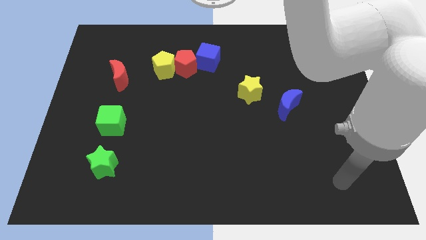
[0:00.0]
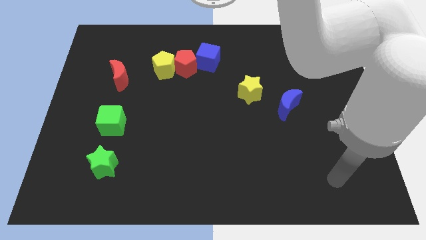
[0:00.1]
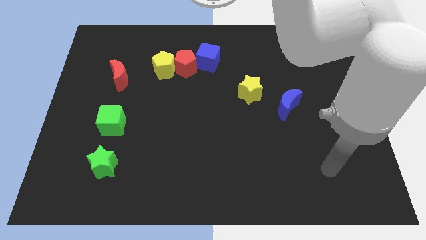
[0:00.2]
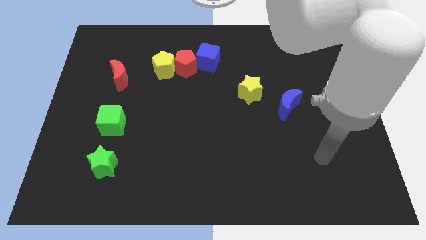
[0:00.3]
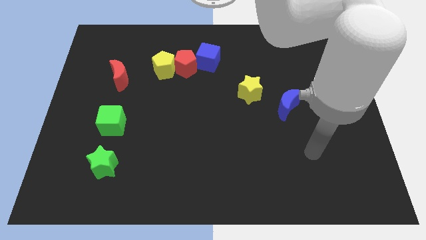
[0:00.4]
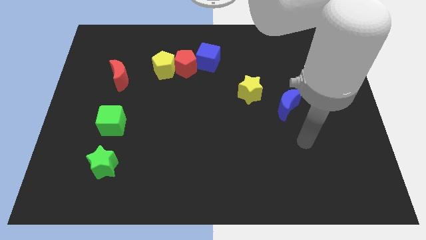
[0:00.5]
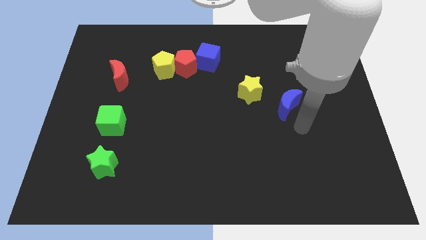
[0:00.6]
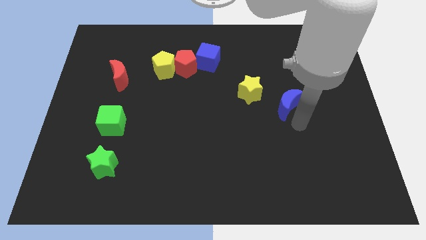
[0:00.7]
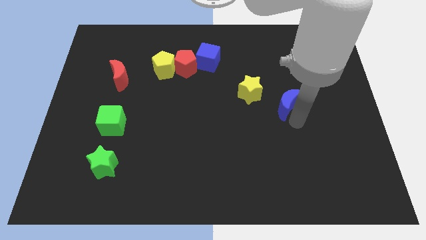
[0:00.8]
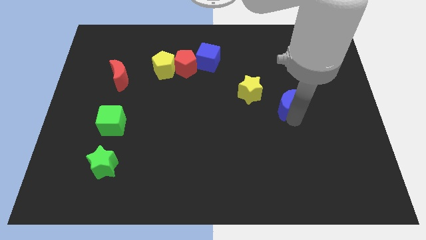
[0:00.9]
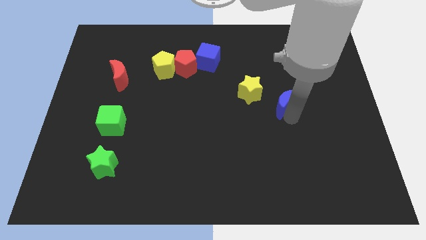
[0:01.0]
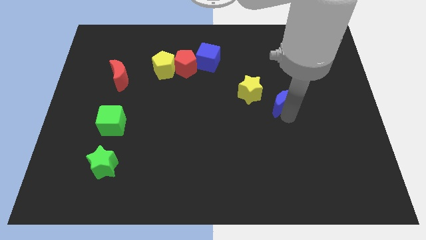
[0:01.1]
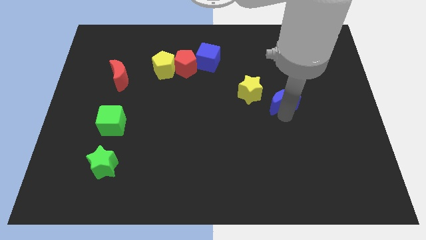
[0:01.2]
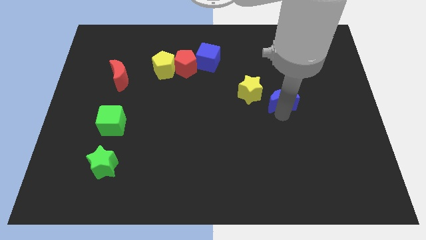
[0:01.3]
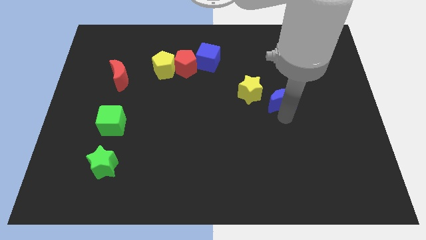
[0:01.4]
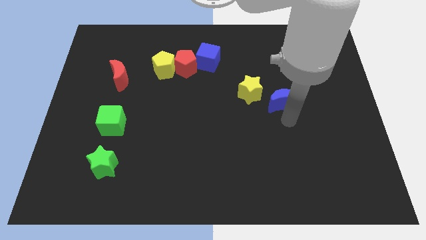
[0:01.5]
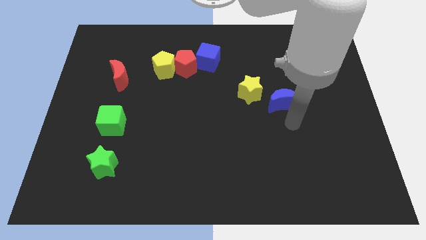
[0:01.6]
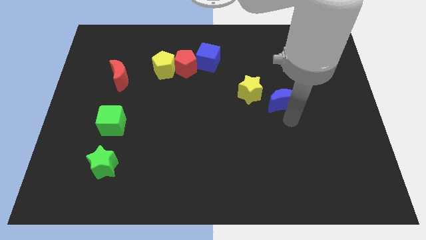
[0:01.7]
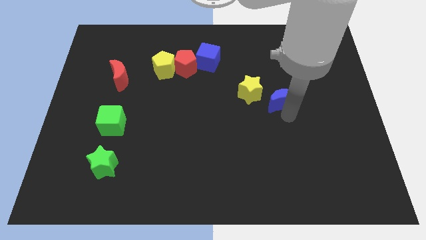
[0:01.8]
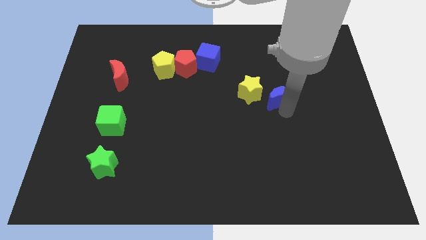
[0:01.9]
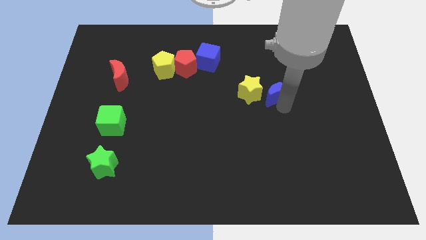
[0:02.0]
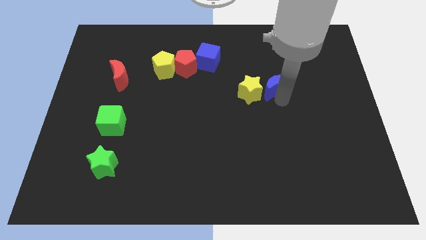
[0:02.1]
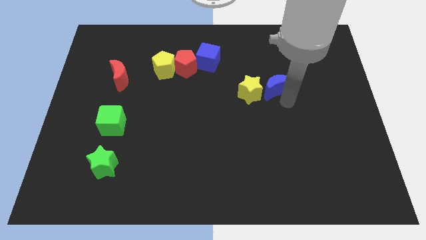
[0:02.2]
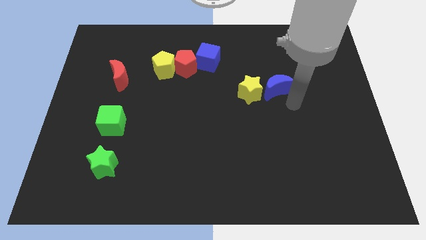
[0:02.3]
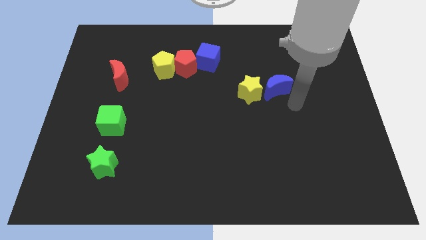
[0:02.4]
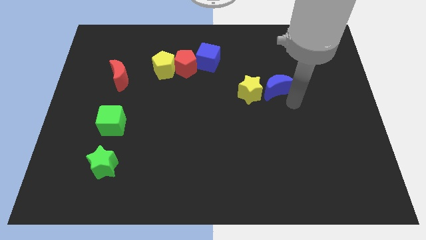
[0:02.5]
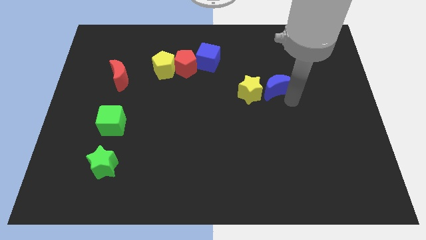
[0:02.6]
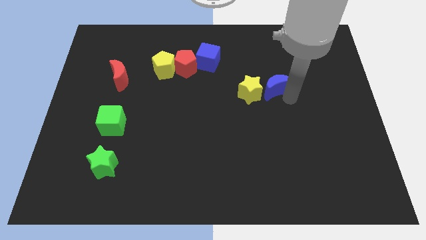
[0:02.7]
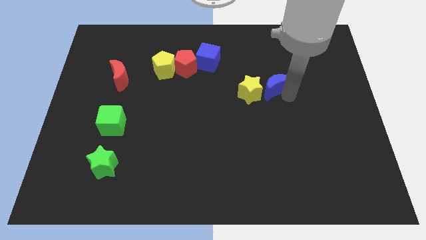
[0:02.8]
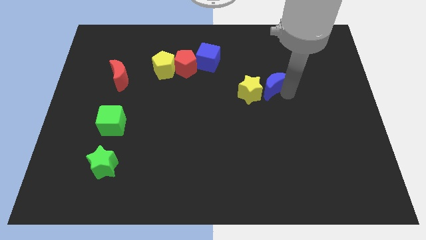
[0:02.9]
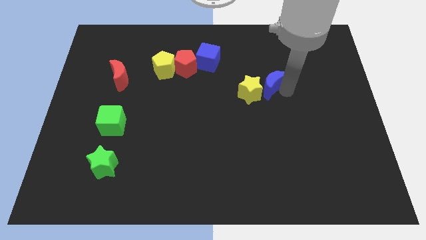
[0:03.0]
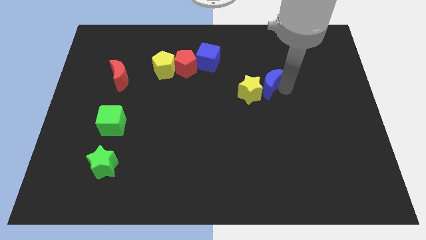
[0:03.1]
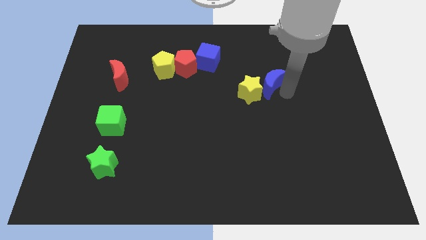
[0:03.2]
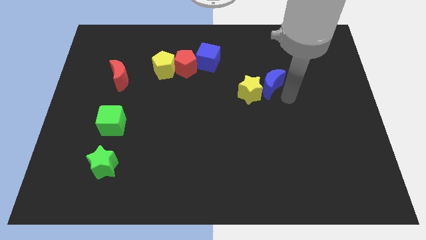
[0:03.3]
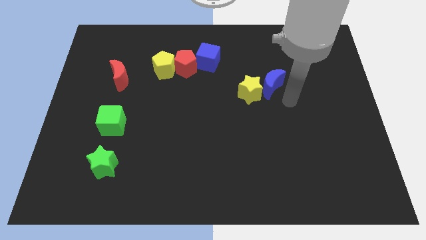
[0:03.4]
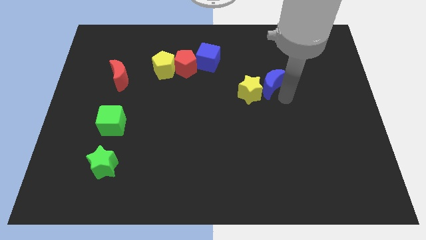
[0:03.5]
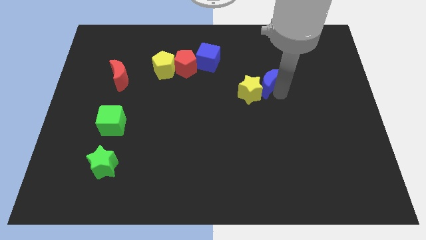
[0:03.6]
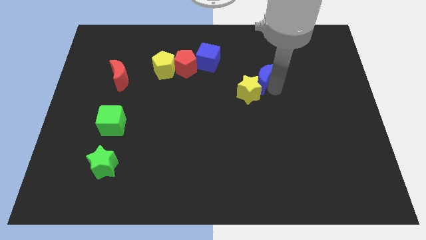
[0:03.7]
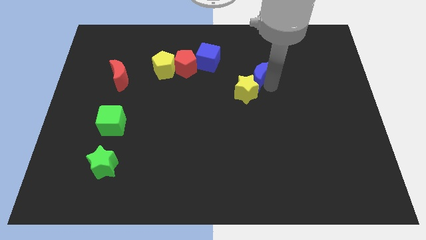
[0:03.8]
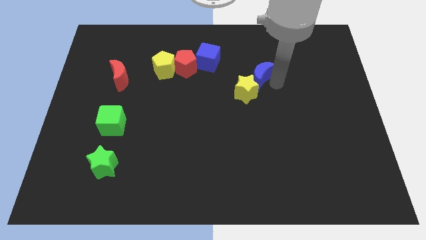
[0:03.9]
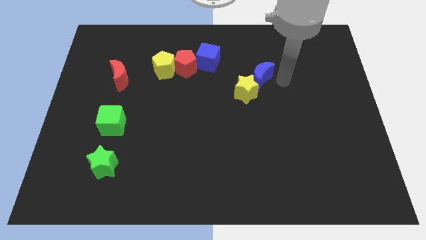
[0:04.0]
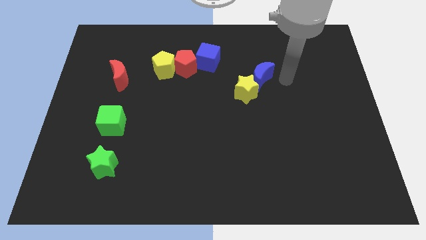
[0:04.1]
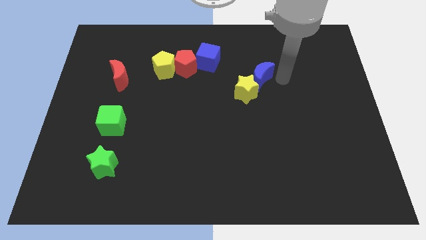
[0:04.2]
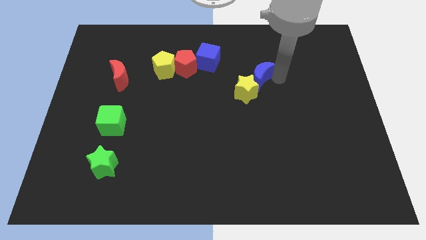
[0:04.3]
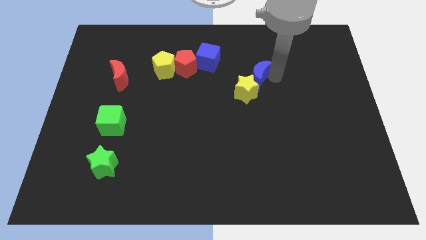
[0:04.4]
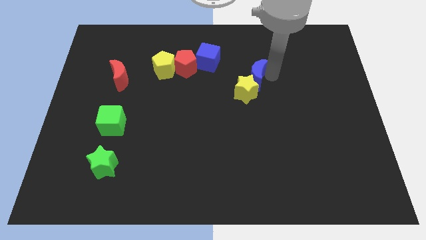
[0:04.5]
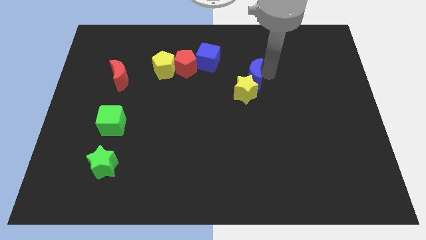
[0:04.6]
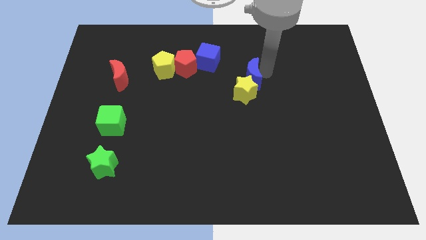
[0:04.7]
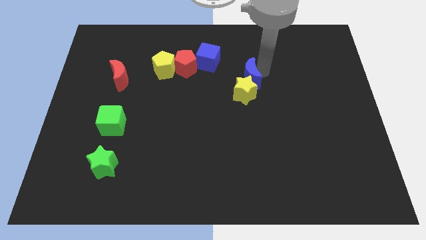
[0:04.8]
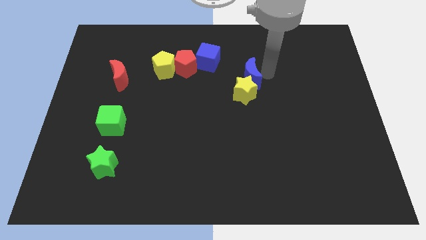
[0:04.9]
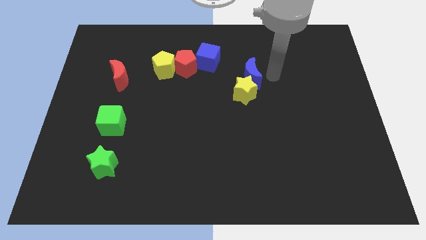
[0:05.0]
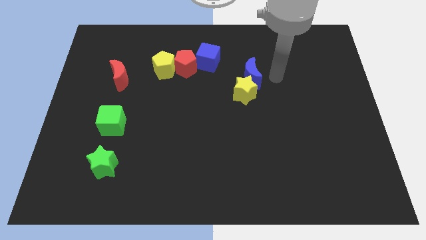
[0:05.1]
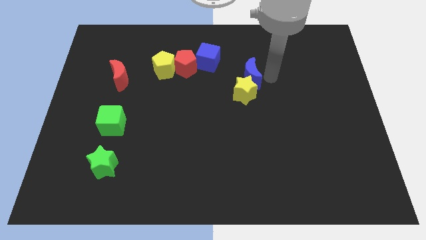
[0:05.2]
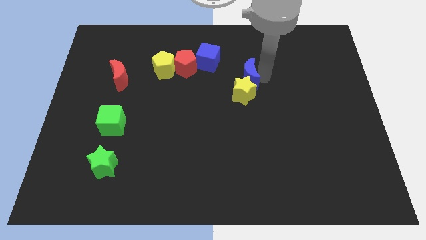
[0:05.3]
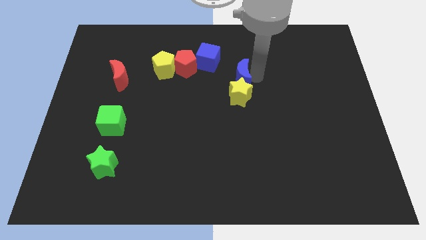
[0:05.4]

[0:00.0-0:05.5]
put the blue moon to the top left side of the yellow star

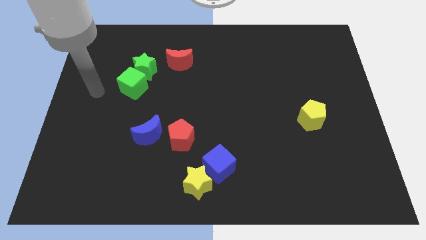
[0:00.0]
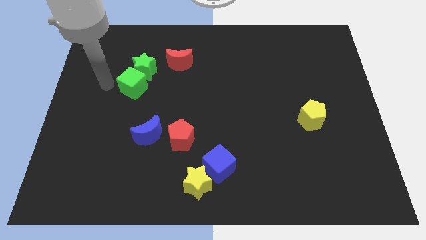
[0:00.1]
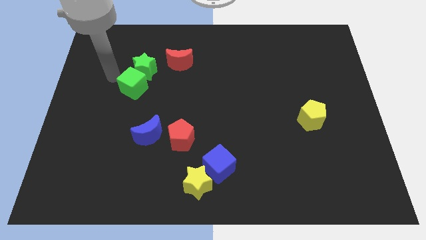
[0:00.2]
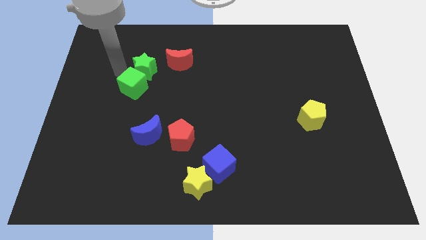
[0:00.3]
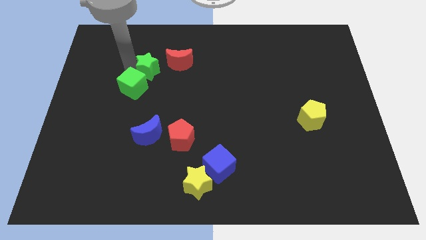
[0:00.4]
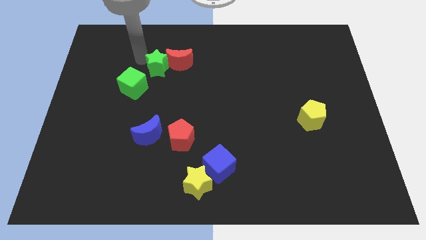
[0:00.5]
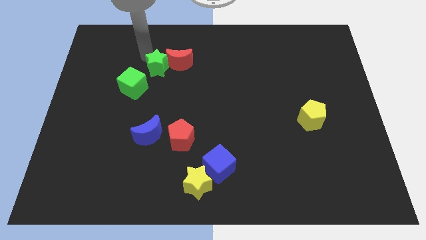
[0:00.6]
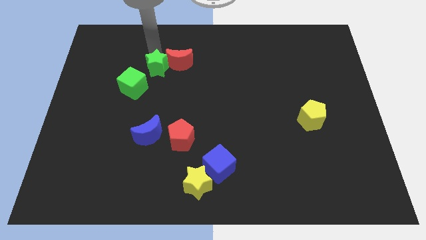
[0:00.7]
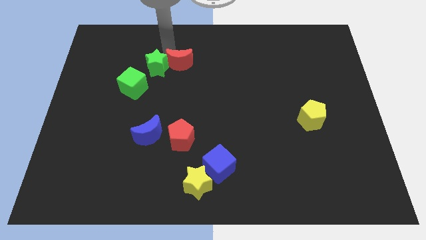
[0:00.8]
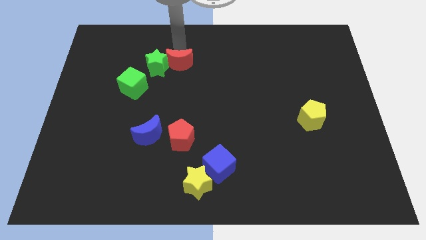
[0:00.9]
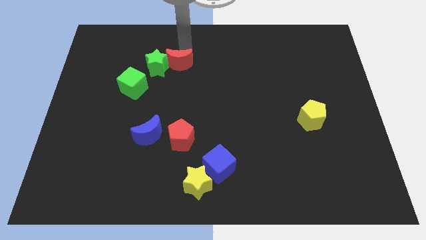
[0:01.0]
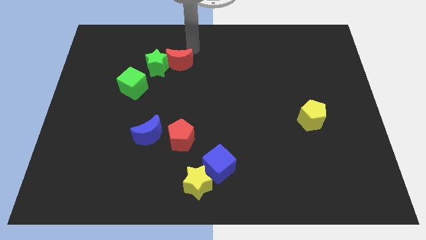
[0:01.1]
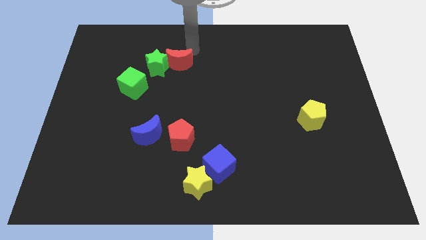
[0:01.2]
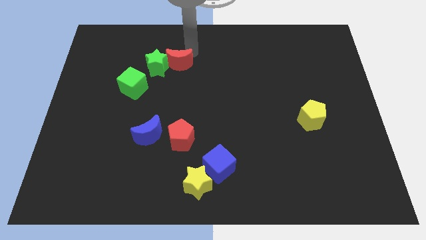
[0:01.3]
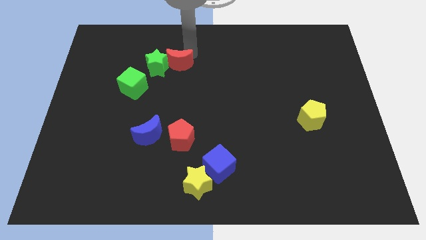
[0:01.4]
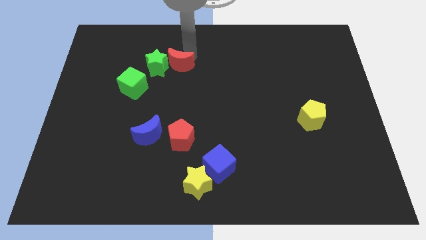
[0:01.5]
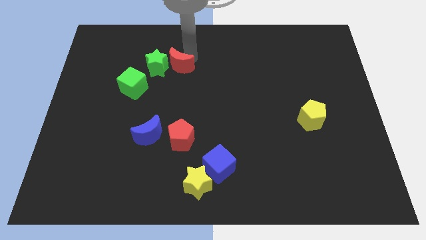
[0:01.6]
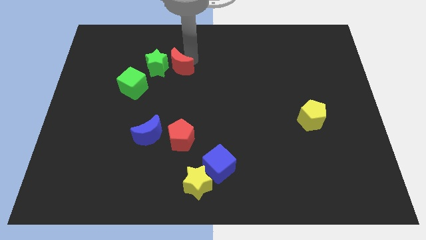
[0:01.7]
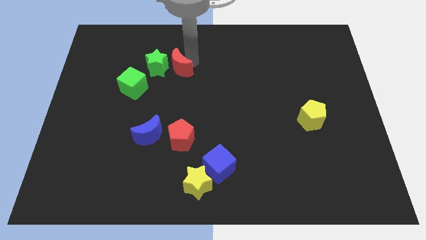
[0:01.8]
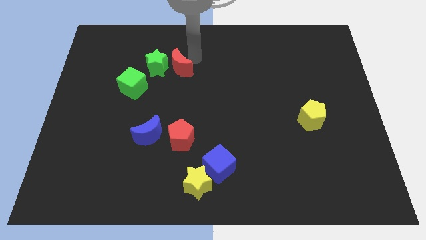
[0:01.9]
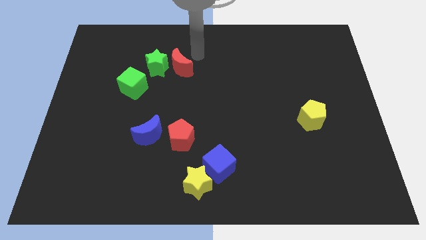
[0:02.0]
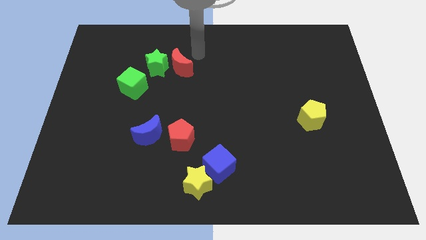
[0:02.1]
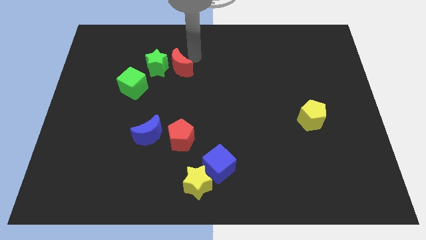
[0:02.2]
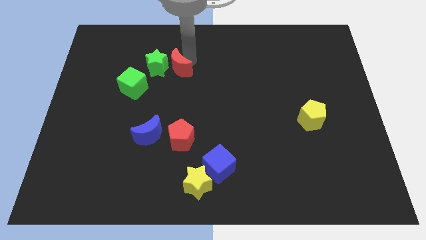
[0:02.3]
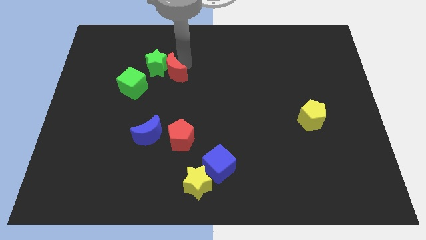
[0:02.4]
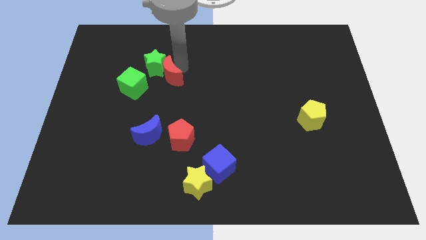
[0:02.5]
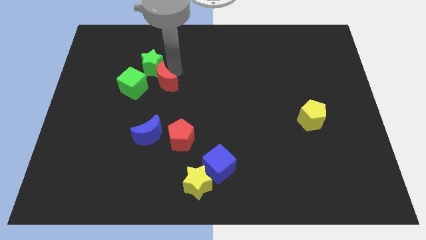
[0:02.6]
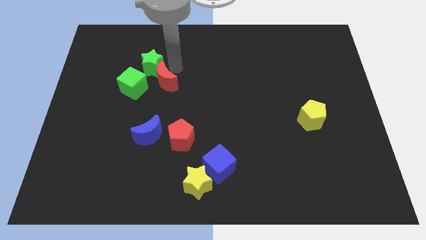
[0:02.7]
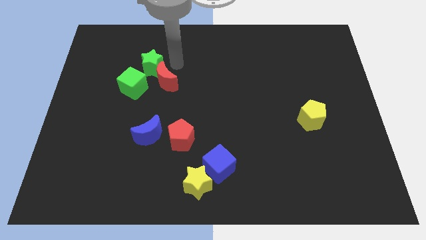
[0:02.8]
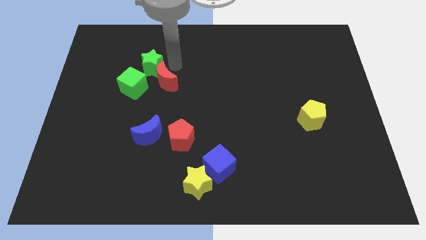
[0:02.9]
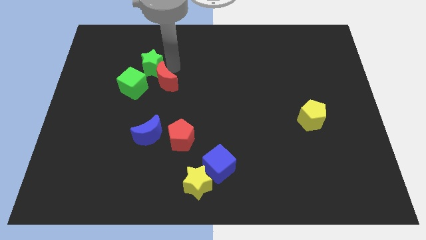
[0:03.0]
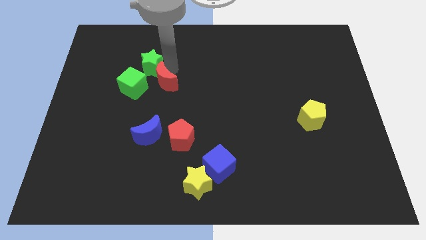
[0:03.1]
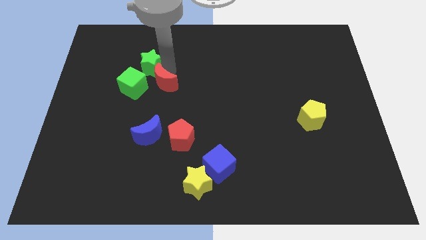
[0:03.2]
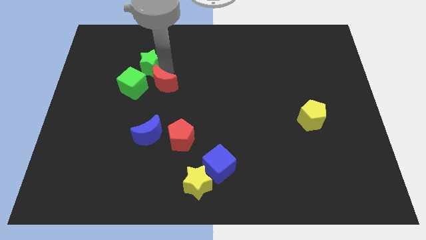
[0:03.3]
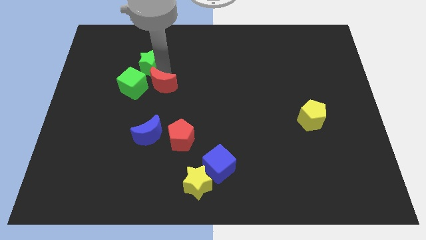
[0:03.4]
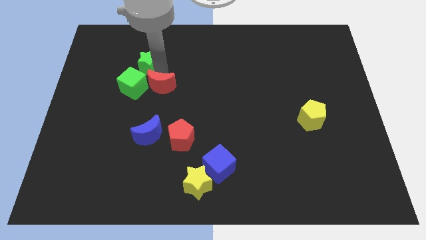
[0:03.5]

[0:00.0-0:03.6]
move the red moon to the bottom right of the green cube
